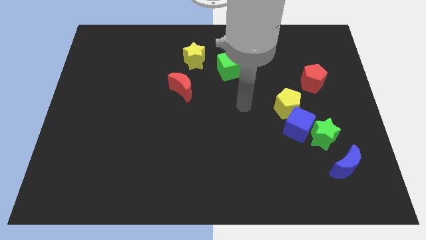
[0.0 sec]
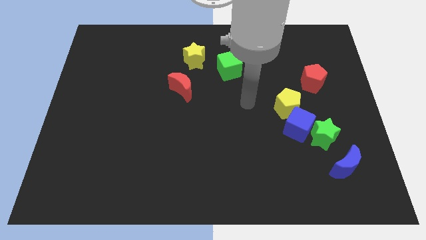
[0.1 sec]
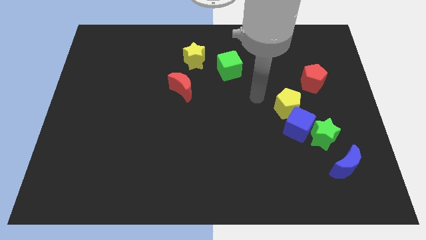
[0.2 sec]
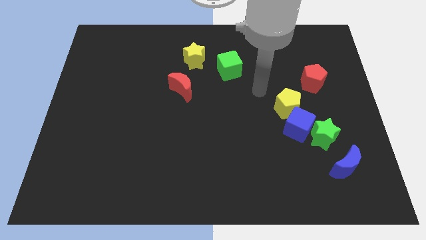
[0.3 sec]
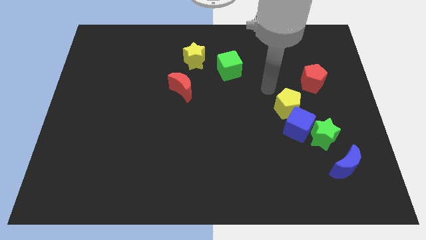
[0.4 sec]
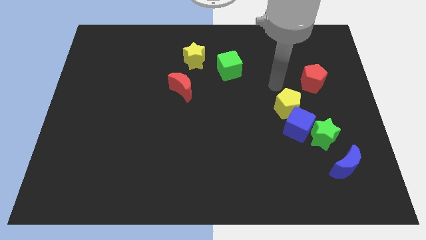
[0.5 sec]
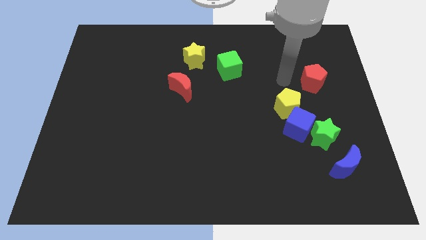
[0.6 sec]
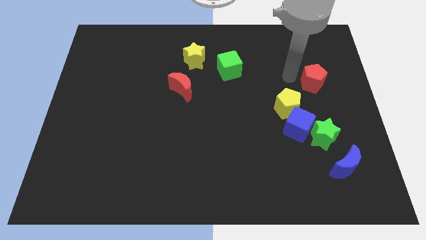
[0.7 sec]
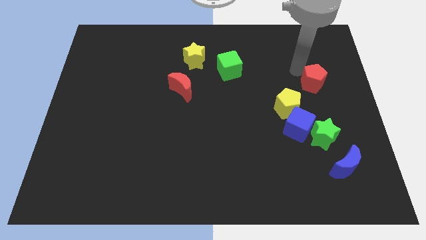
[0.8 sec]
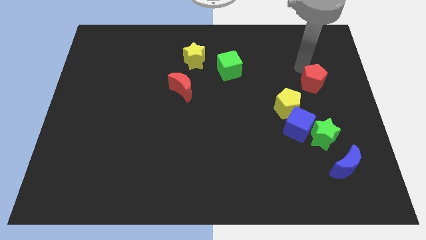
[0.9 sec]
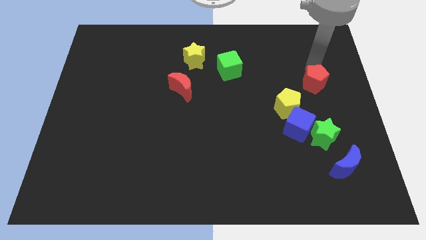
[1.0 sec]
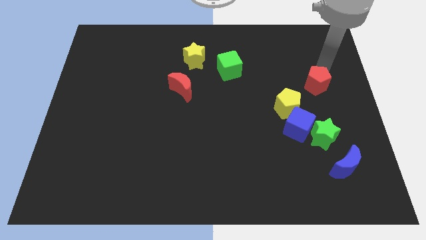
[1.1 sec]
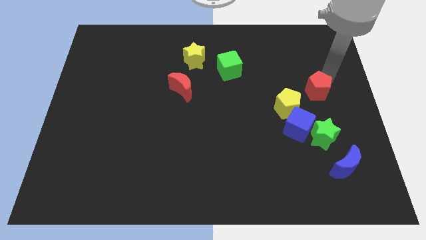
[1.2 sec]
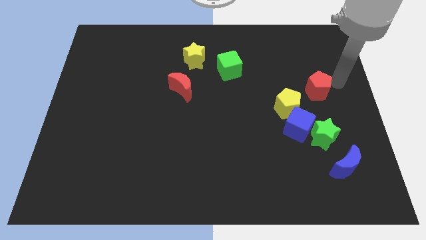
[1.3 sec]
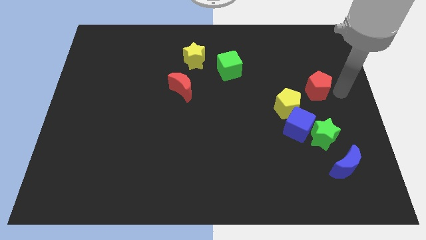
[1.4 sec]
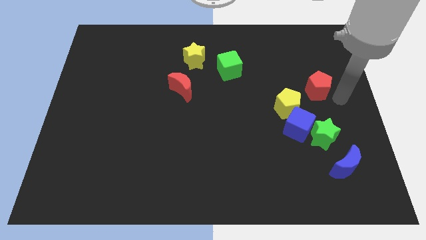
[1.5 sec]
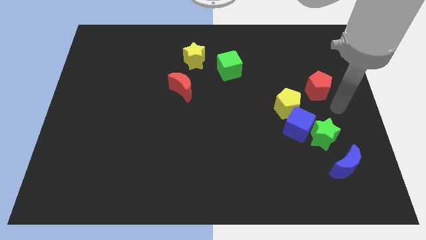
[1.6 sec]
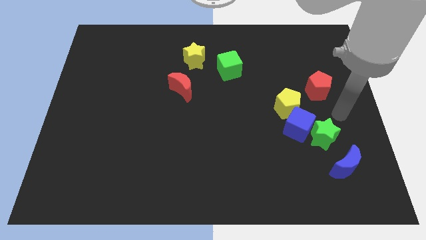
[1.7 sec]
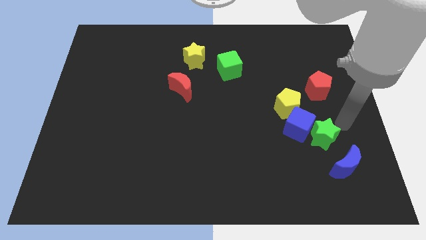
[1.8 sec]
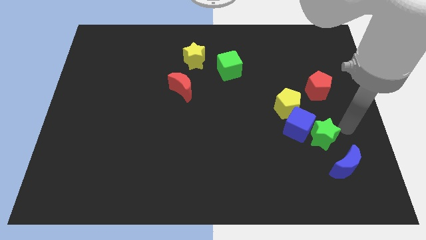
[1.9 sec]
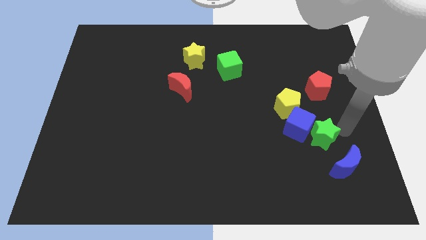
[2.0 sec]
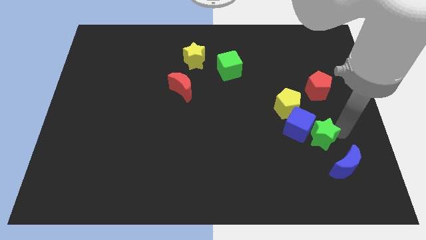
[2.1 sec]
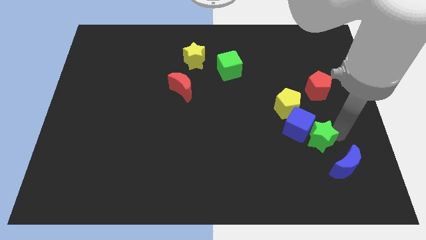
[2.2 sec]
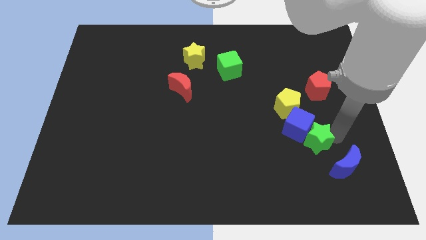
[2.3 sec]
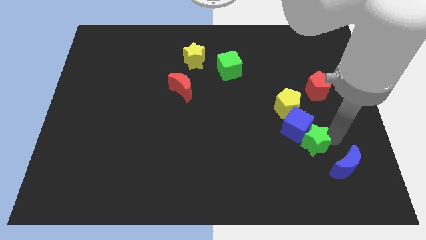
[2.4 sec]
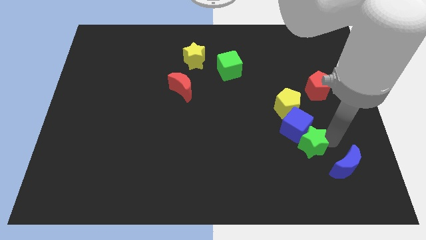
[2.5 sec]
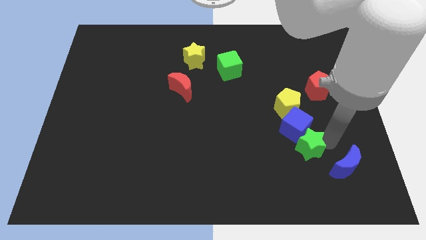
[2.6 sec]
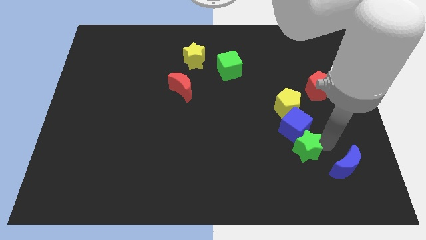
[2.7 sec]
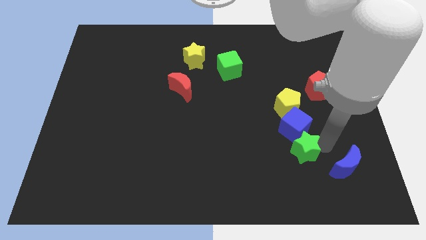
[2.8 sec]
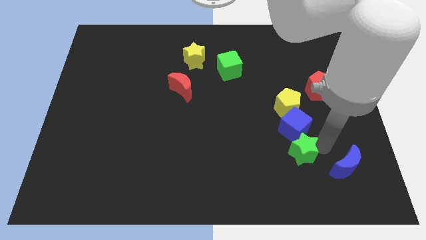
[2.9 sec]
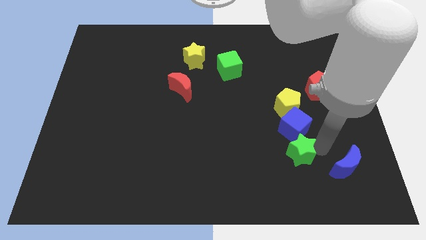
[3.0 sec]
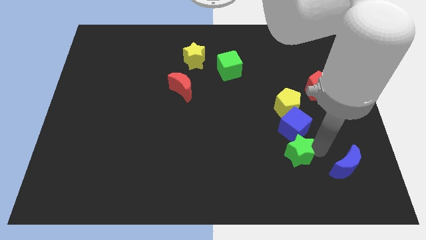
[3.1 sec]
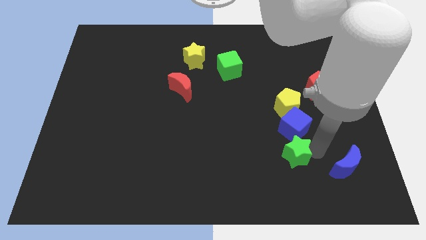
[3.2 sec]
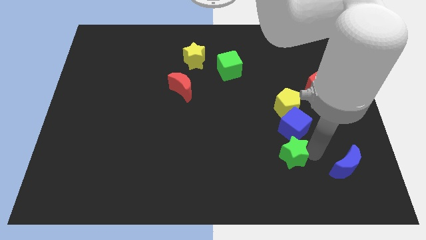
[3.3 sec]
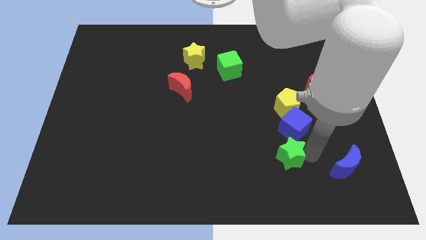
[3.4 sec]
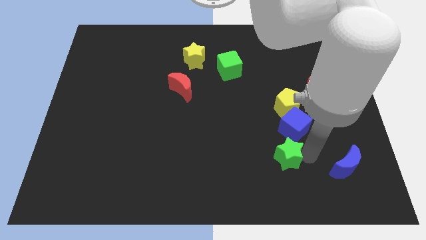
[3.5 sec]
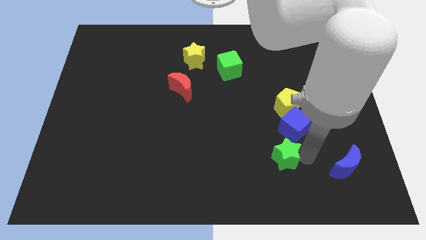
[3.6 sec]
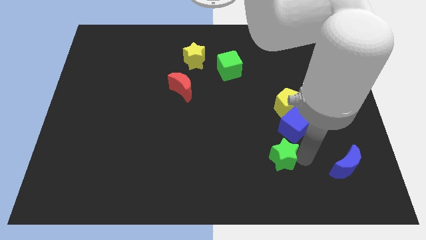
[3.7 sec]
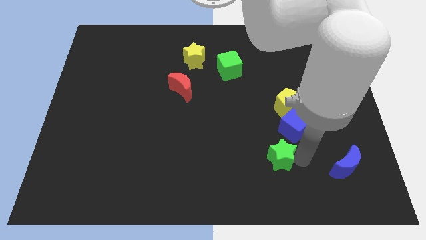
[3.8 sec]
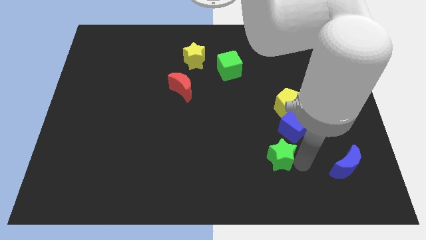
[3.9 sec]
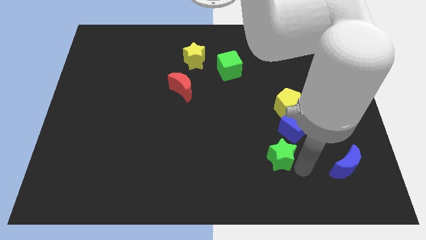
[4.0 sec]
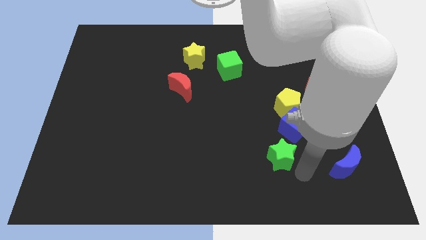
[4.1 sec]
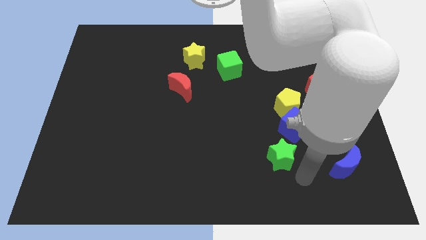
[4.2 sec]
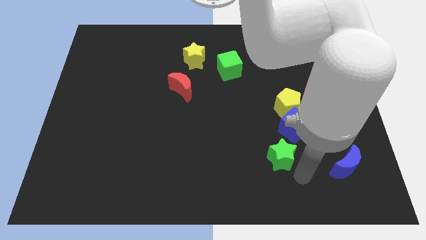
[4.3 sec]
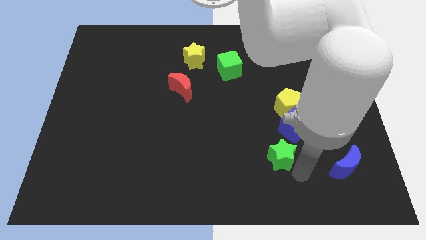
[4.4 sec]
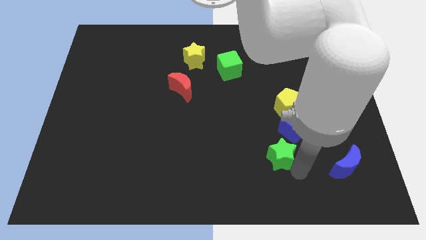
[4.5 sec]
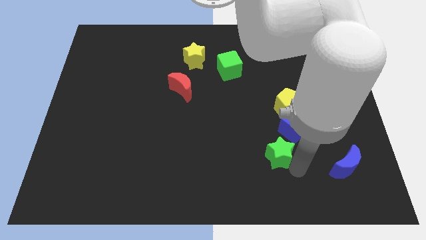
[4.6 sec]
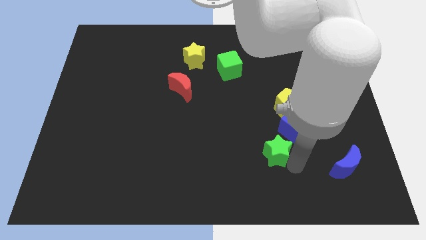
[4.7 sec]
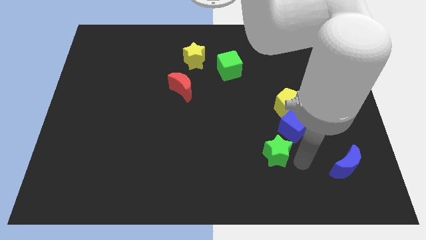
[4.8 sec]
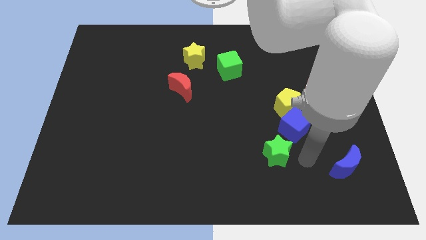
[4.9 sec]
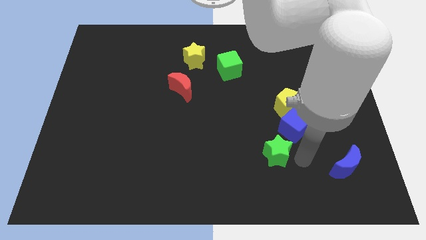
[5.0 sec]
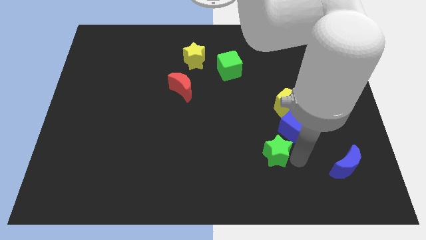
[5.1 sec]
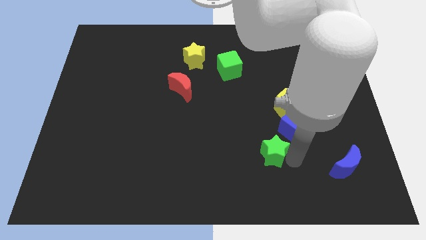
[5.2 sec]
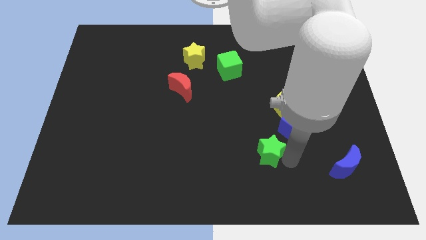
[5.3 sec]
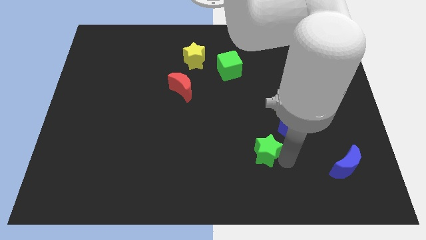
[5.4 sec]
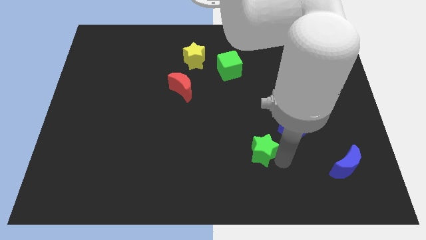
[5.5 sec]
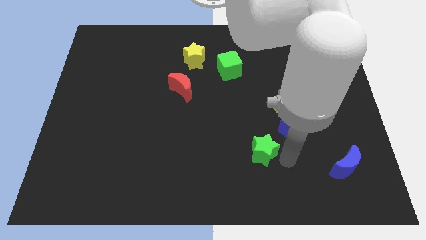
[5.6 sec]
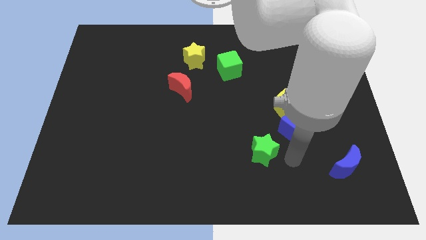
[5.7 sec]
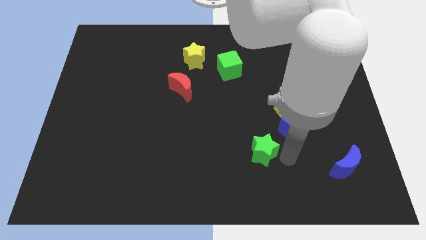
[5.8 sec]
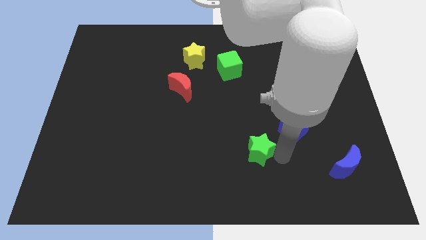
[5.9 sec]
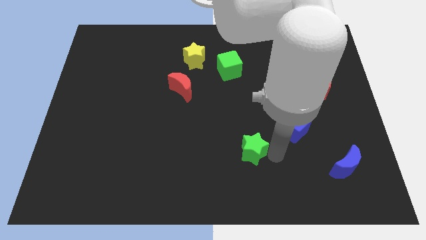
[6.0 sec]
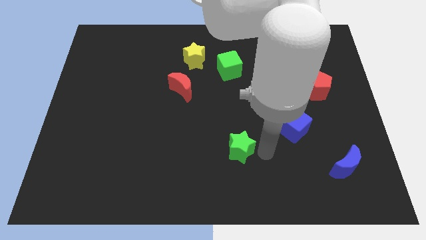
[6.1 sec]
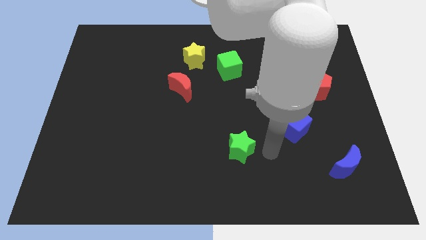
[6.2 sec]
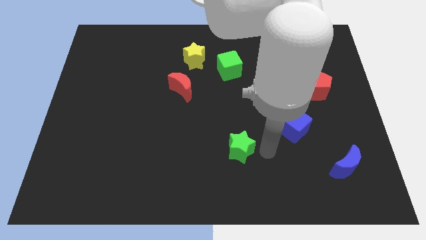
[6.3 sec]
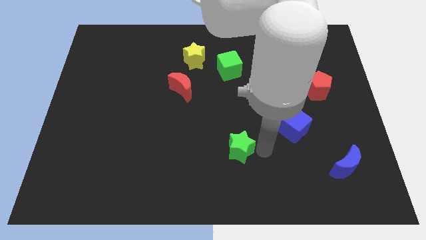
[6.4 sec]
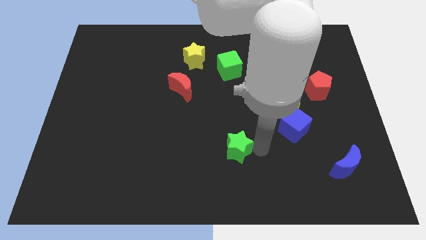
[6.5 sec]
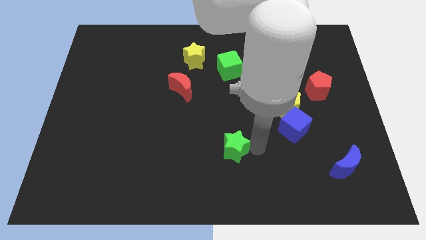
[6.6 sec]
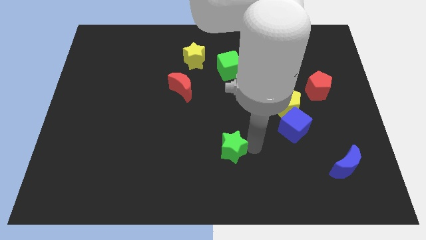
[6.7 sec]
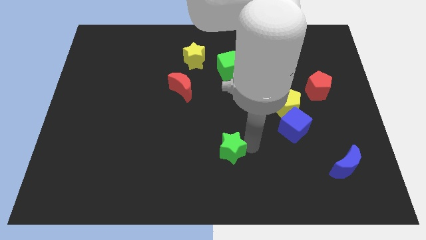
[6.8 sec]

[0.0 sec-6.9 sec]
push the green star to the left

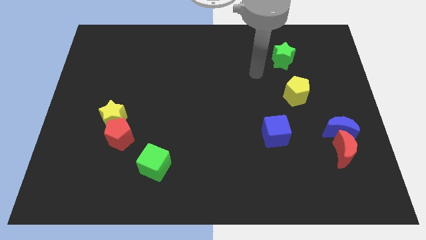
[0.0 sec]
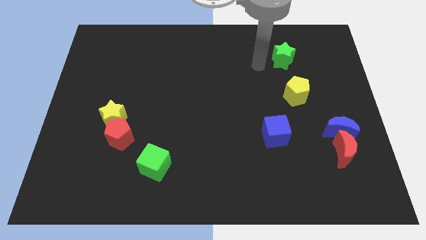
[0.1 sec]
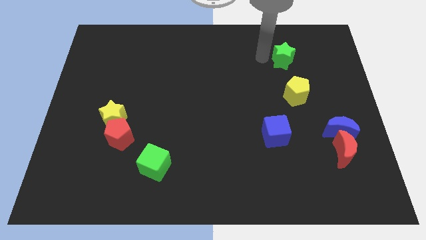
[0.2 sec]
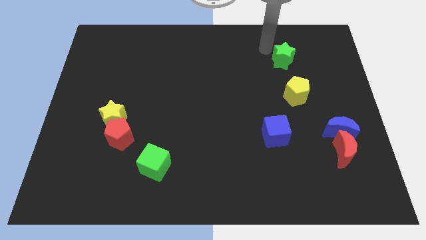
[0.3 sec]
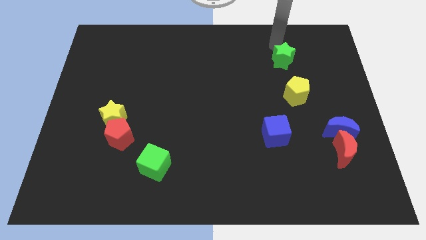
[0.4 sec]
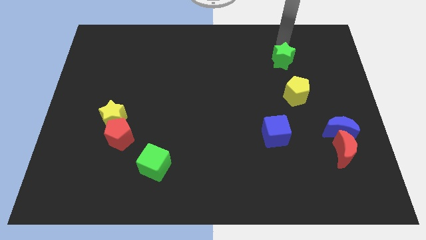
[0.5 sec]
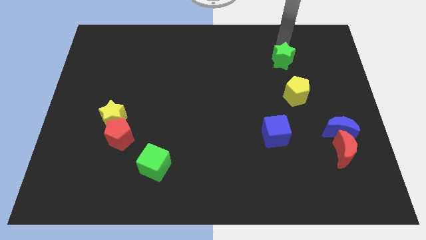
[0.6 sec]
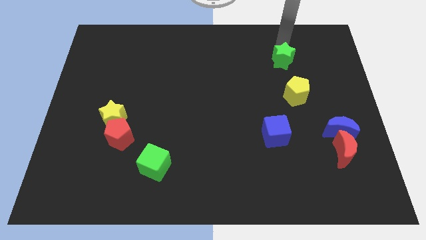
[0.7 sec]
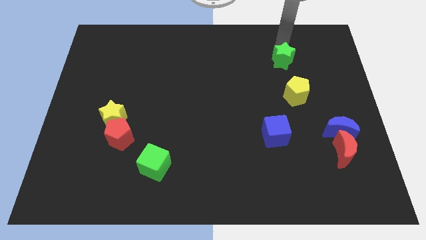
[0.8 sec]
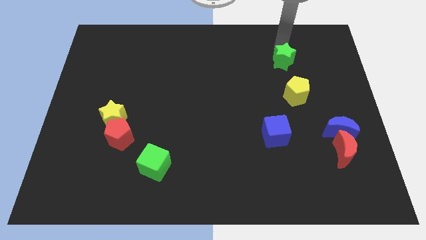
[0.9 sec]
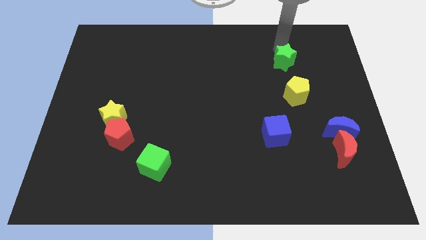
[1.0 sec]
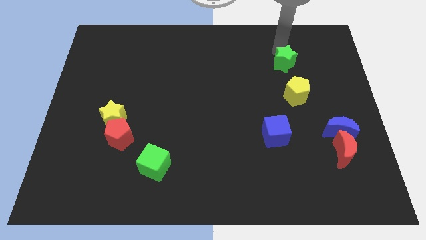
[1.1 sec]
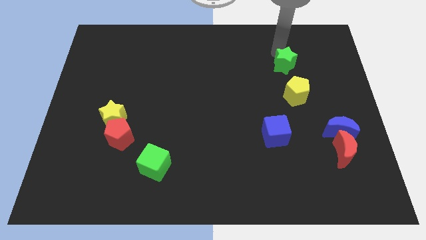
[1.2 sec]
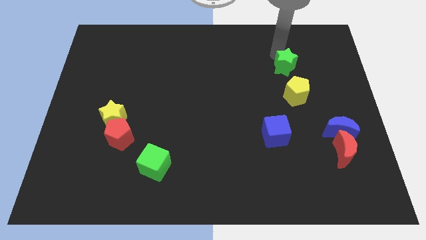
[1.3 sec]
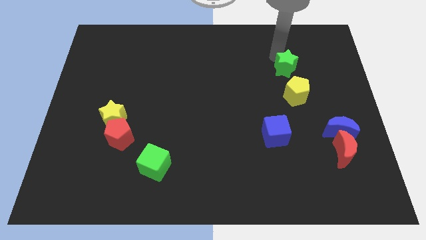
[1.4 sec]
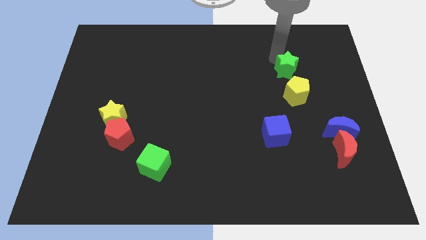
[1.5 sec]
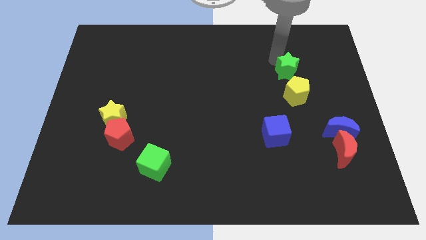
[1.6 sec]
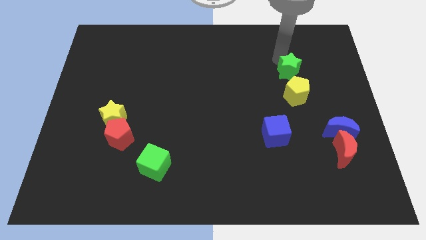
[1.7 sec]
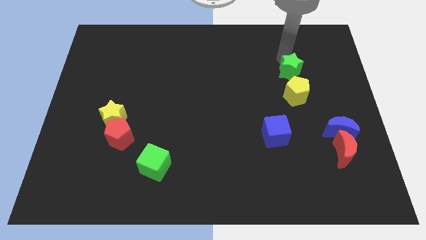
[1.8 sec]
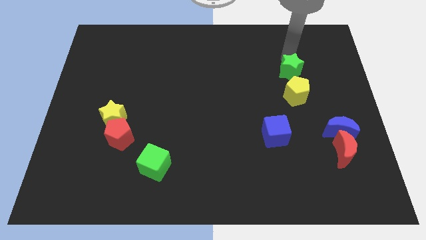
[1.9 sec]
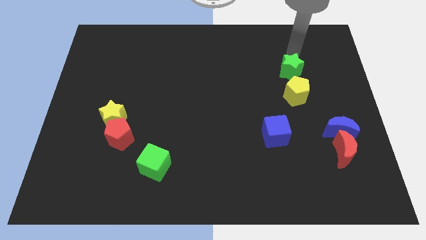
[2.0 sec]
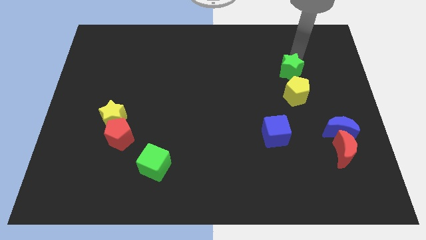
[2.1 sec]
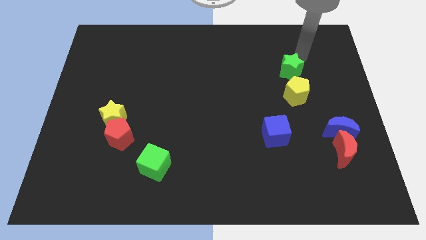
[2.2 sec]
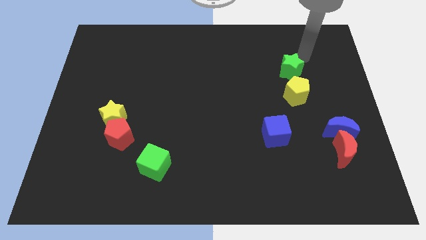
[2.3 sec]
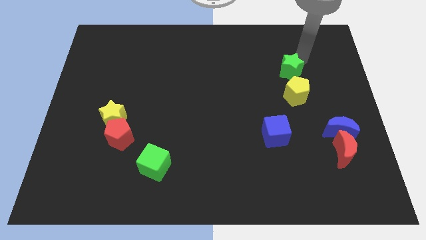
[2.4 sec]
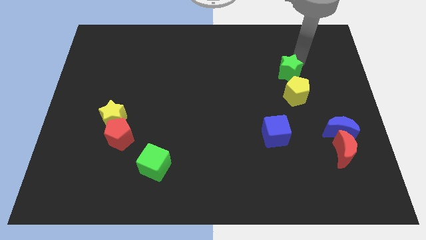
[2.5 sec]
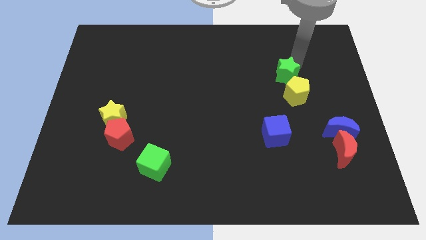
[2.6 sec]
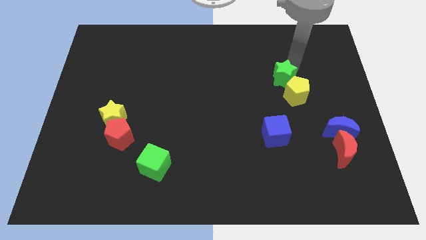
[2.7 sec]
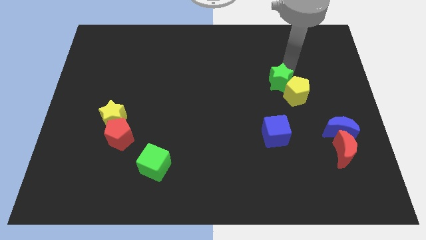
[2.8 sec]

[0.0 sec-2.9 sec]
move the green star down somewhat
